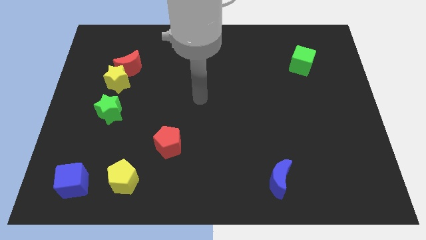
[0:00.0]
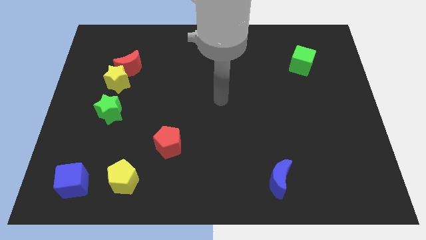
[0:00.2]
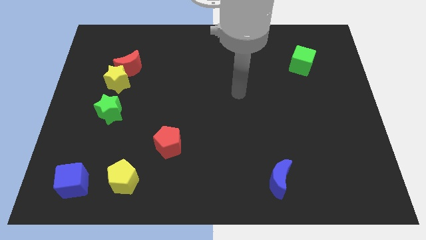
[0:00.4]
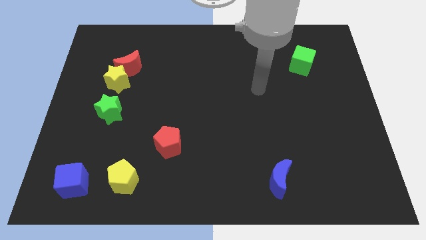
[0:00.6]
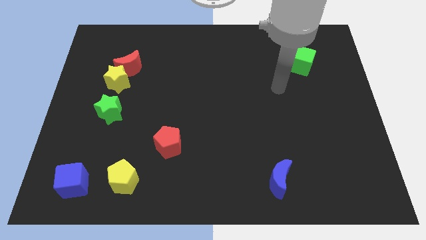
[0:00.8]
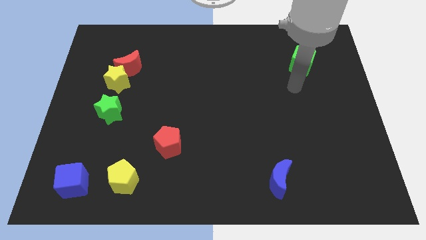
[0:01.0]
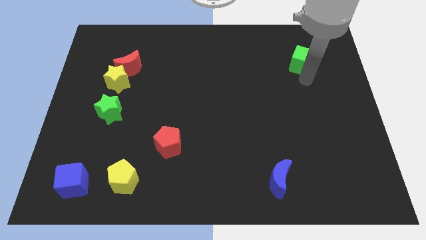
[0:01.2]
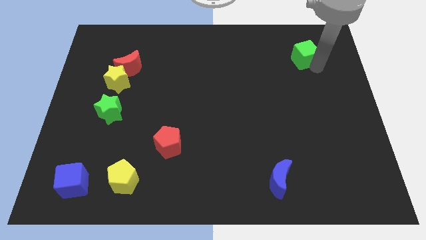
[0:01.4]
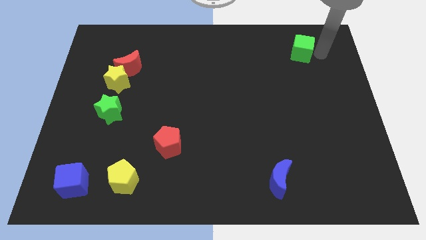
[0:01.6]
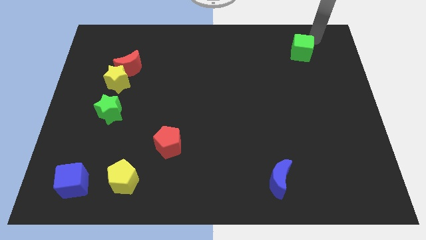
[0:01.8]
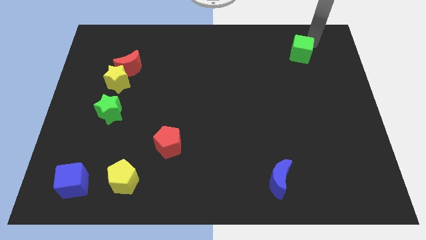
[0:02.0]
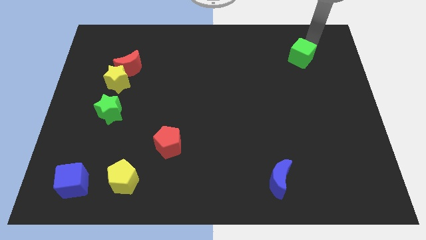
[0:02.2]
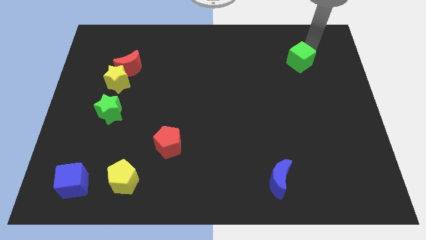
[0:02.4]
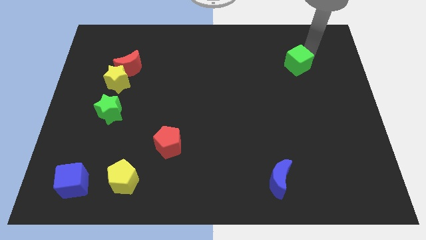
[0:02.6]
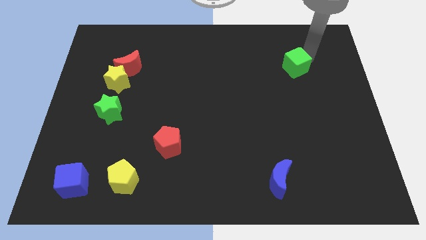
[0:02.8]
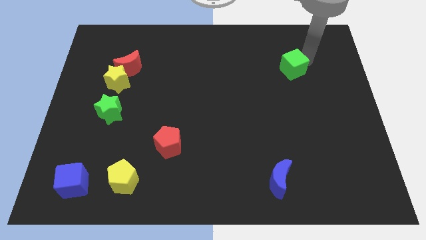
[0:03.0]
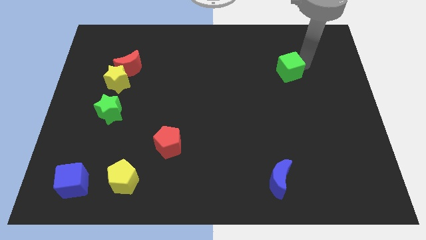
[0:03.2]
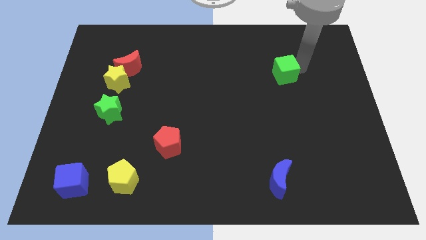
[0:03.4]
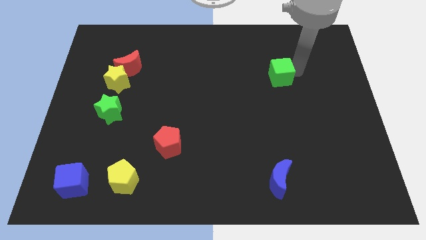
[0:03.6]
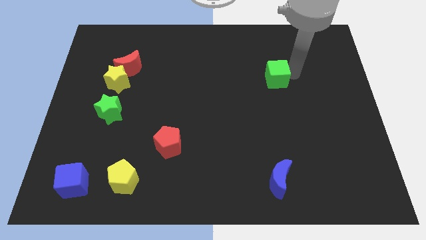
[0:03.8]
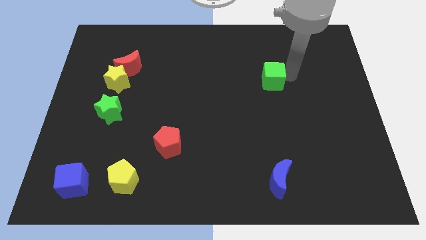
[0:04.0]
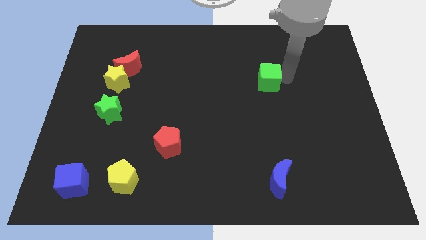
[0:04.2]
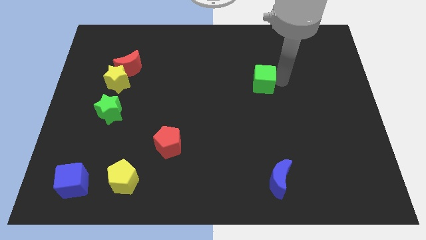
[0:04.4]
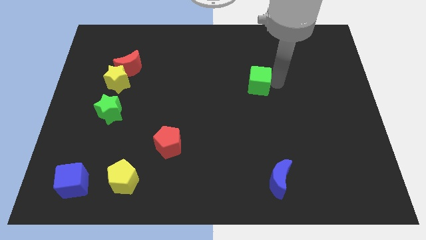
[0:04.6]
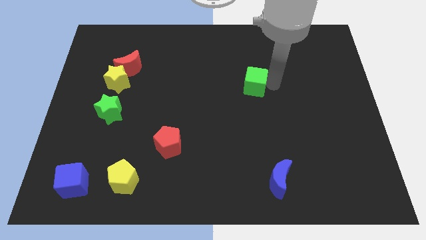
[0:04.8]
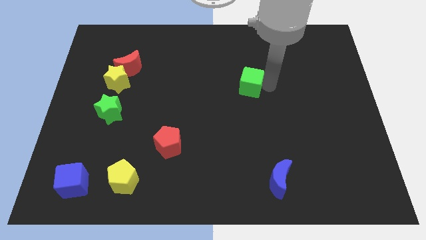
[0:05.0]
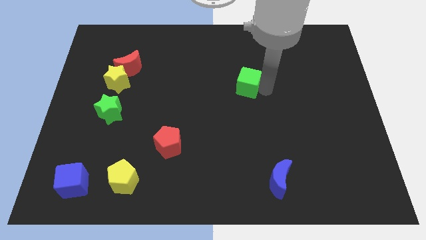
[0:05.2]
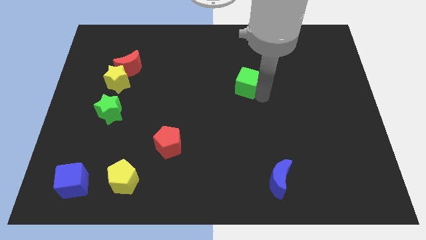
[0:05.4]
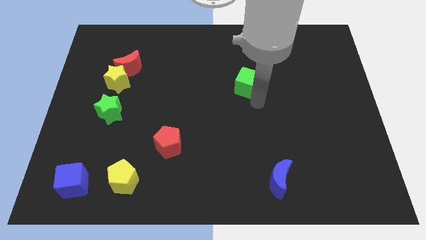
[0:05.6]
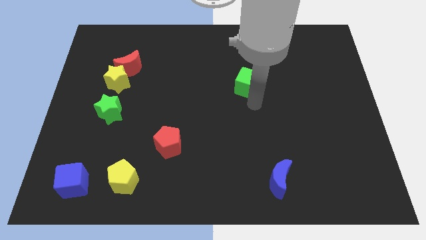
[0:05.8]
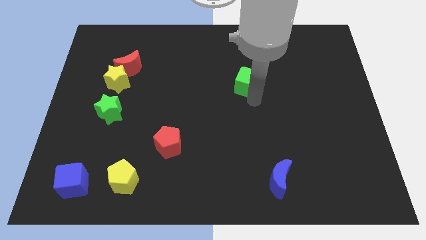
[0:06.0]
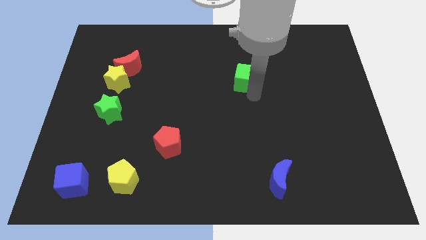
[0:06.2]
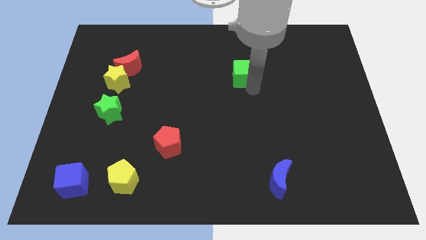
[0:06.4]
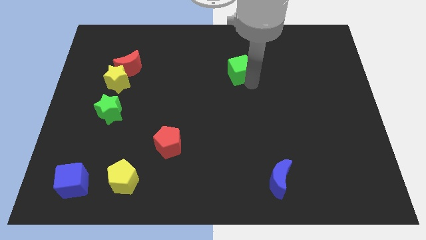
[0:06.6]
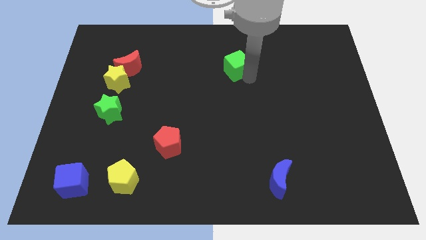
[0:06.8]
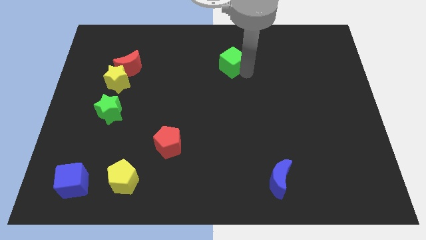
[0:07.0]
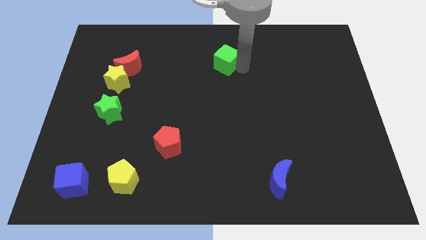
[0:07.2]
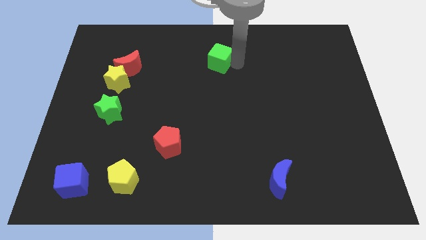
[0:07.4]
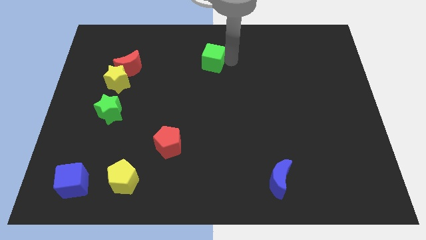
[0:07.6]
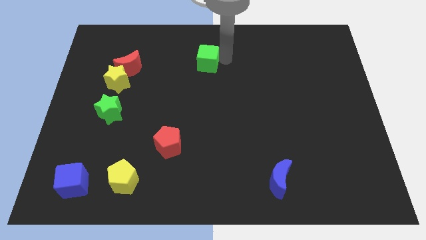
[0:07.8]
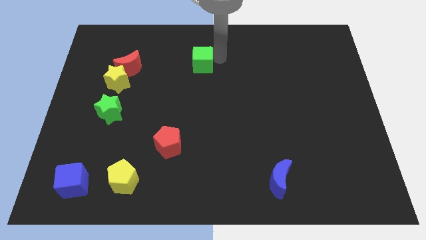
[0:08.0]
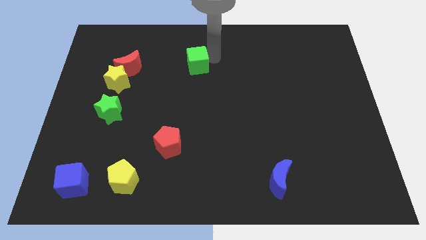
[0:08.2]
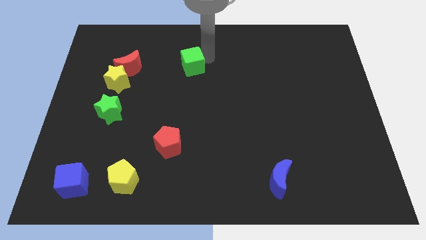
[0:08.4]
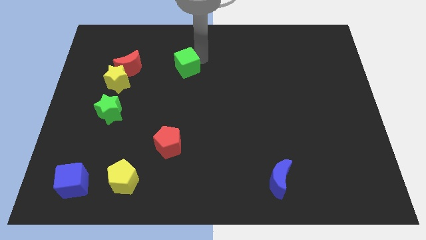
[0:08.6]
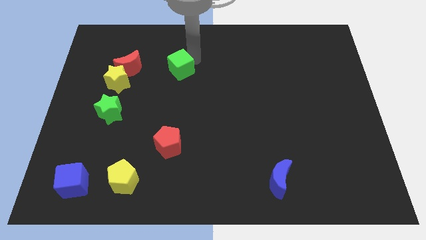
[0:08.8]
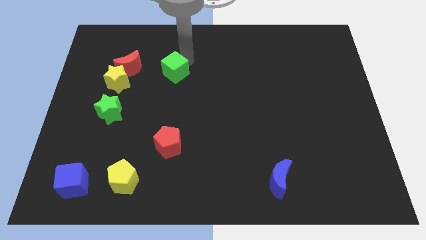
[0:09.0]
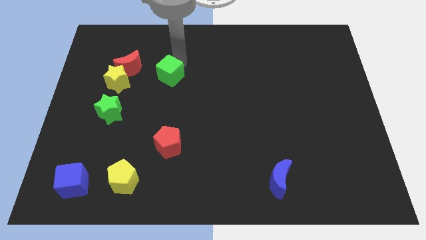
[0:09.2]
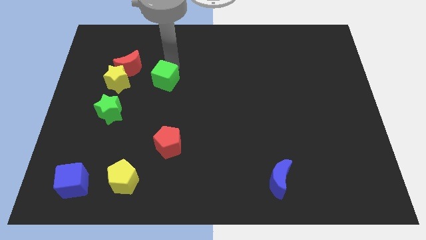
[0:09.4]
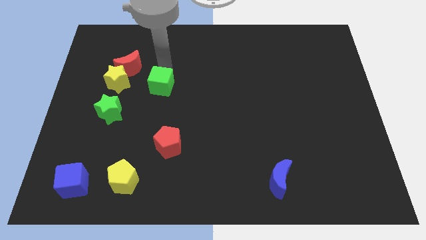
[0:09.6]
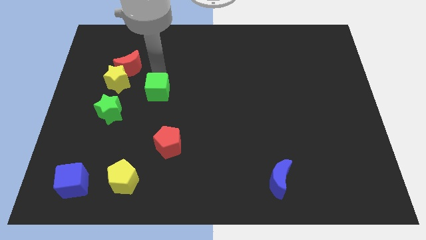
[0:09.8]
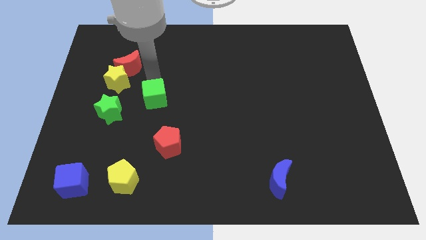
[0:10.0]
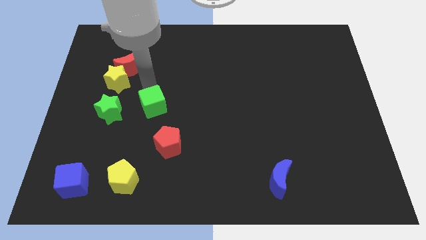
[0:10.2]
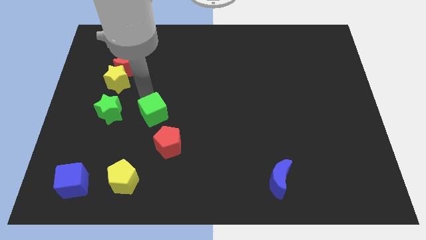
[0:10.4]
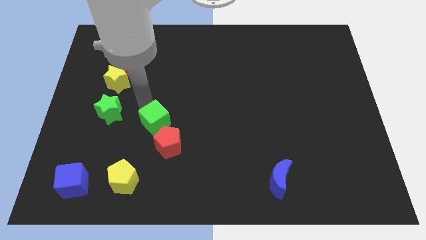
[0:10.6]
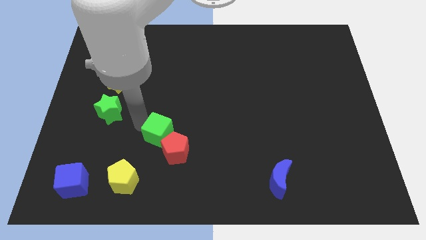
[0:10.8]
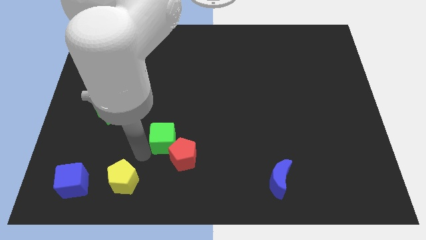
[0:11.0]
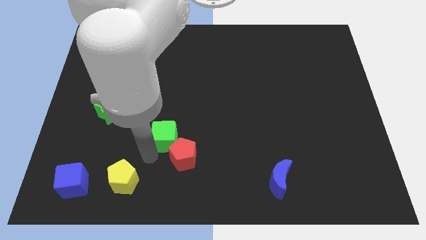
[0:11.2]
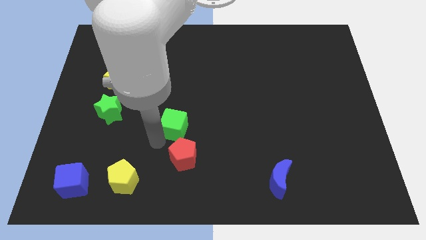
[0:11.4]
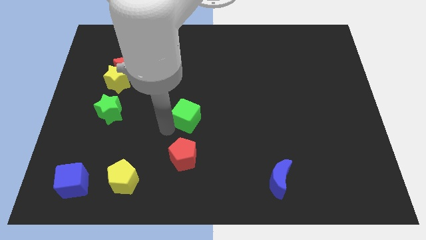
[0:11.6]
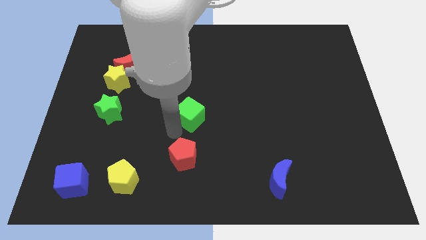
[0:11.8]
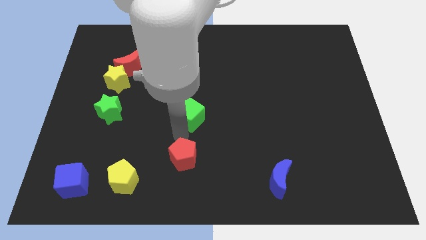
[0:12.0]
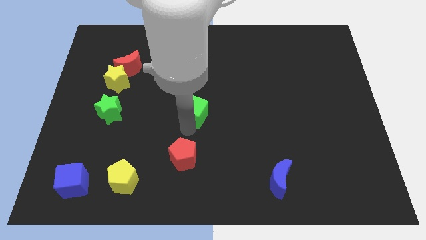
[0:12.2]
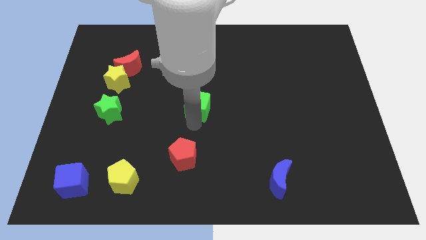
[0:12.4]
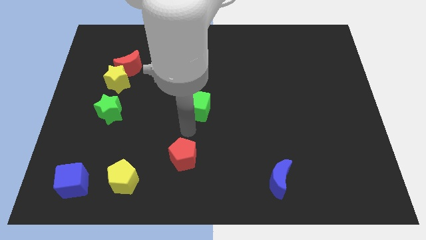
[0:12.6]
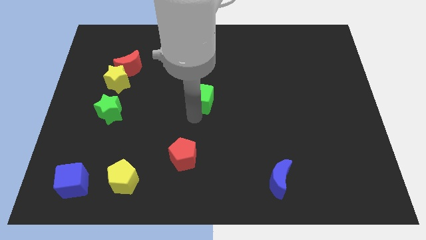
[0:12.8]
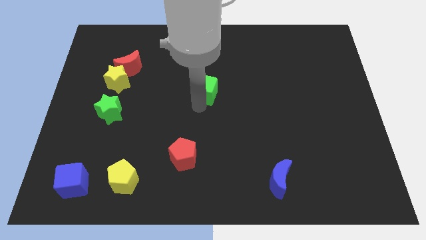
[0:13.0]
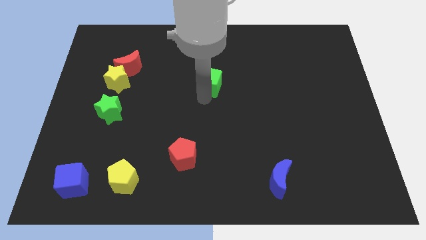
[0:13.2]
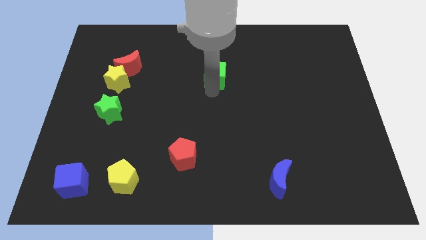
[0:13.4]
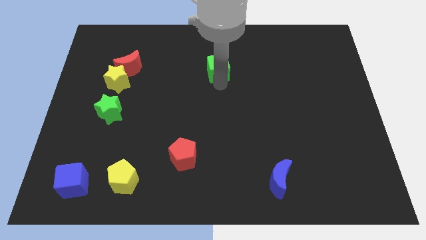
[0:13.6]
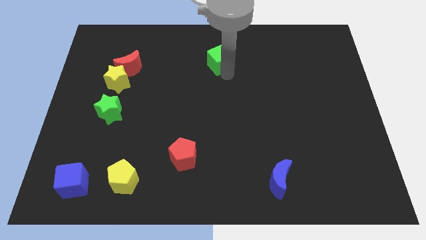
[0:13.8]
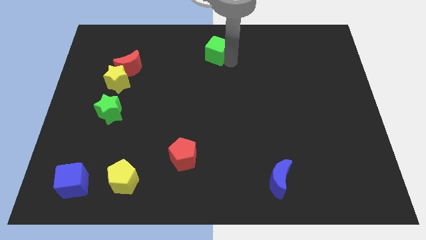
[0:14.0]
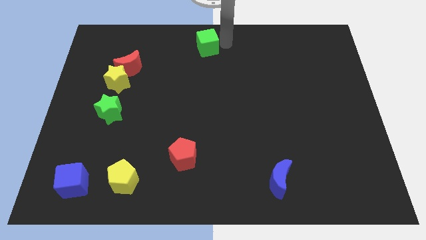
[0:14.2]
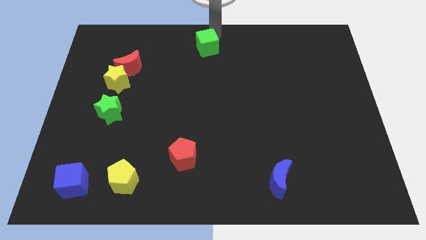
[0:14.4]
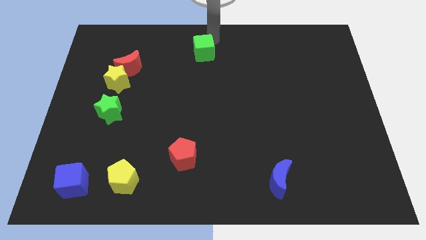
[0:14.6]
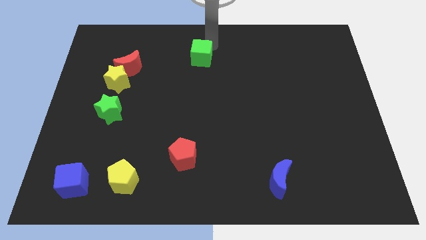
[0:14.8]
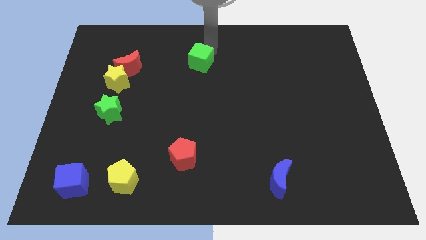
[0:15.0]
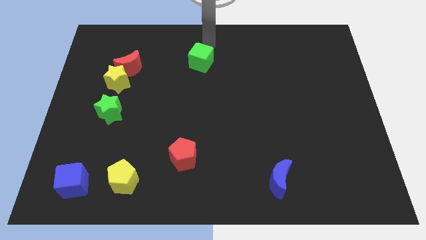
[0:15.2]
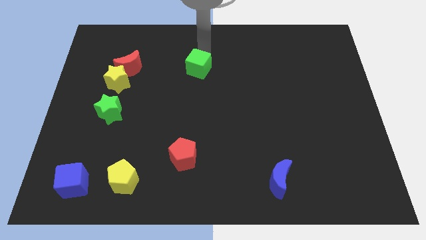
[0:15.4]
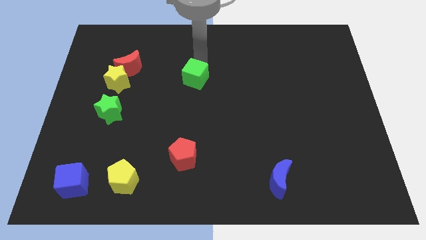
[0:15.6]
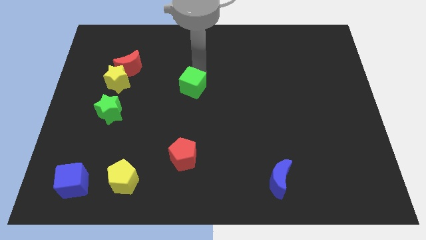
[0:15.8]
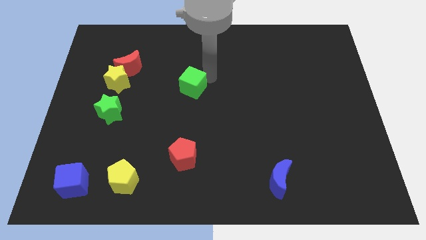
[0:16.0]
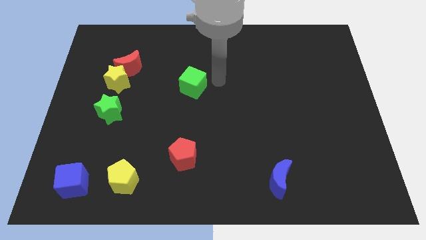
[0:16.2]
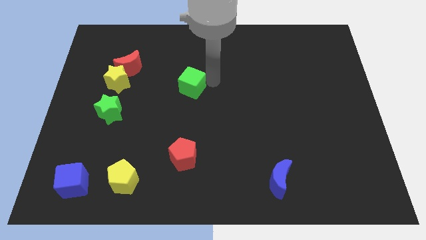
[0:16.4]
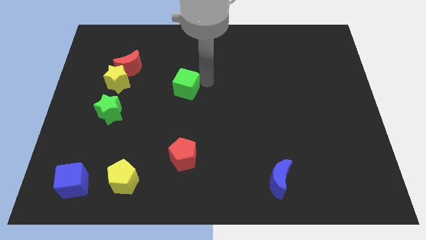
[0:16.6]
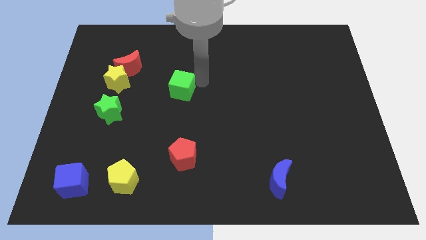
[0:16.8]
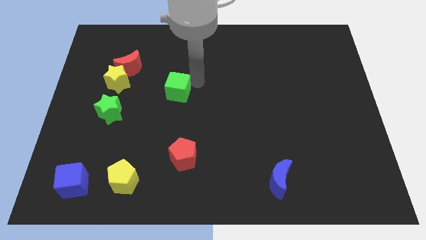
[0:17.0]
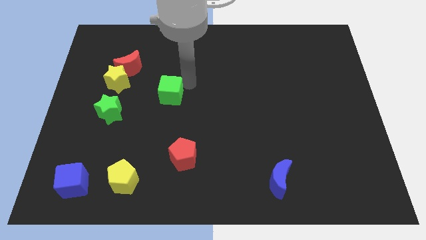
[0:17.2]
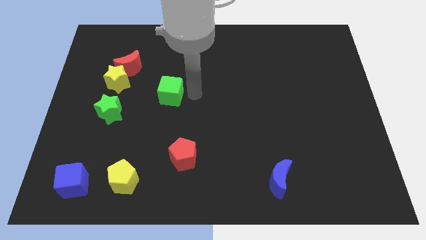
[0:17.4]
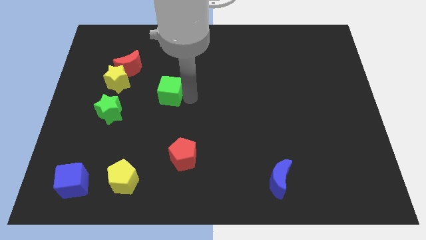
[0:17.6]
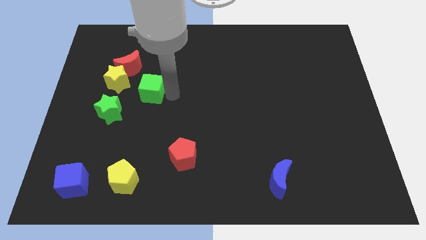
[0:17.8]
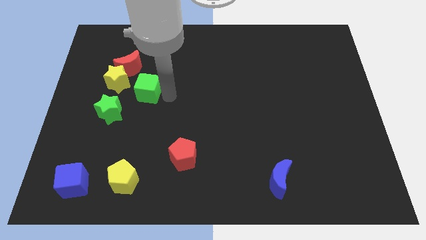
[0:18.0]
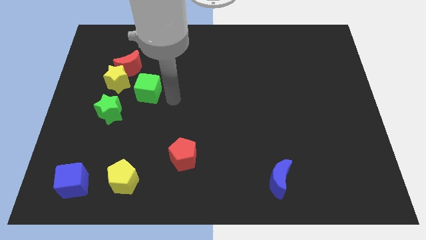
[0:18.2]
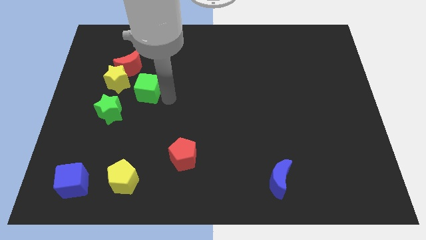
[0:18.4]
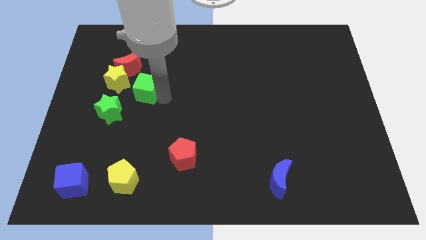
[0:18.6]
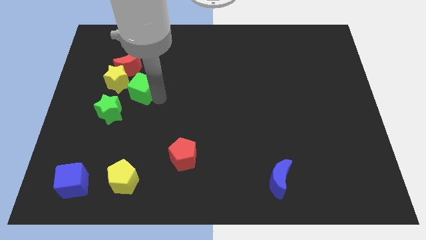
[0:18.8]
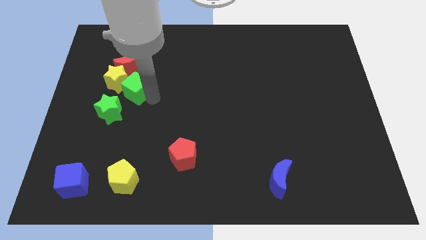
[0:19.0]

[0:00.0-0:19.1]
slide the green cube to the yellow star
